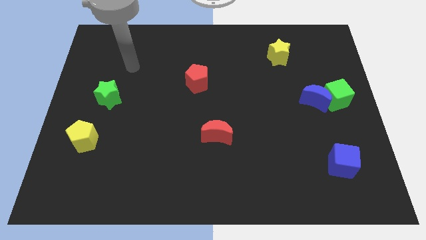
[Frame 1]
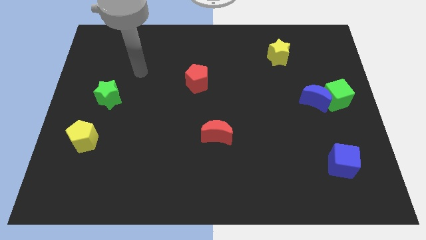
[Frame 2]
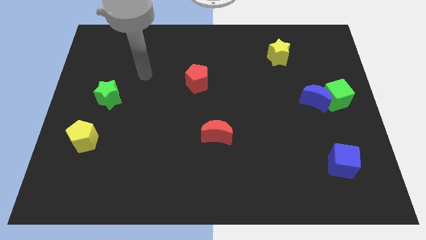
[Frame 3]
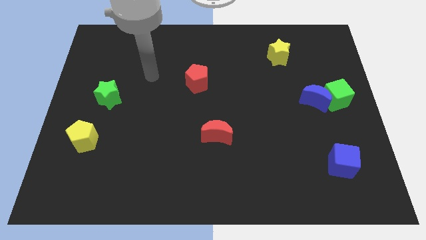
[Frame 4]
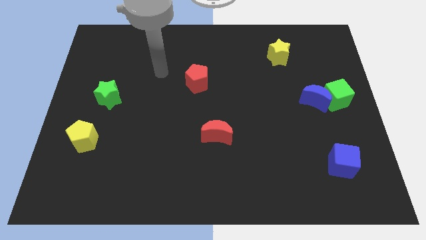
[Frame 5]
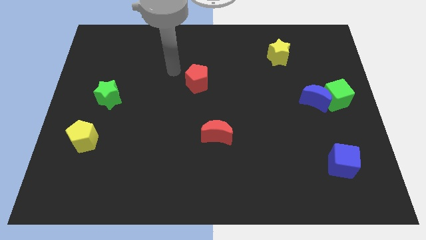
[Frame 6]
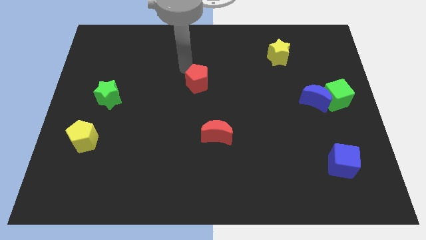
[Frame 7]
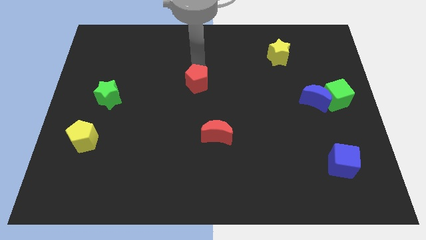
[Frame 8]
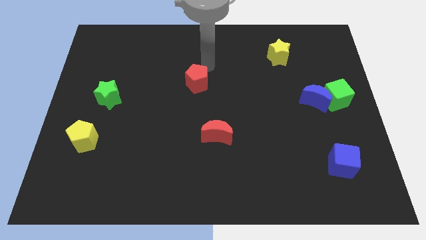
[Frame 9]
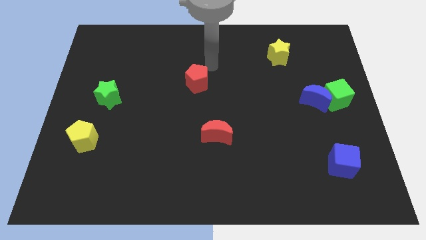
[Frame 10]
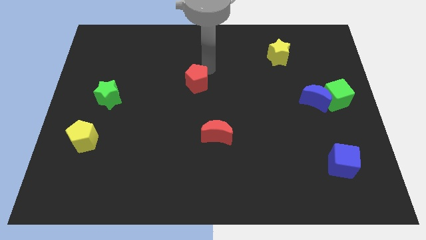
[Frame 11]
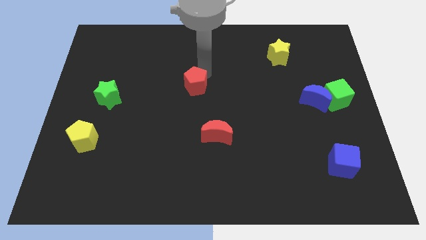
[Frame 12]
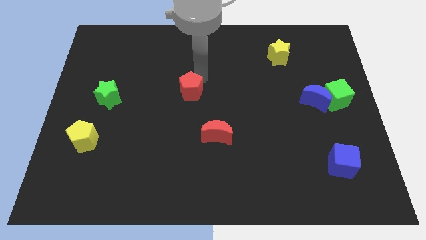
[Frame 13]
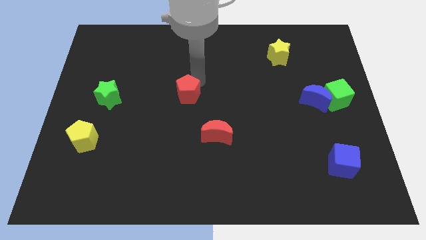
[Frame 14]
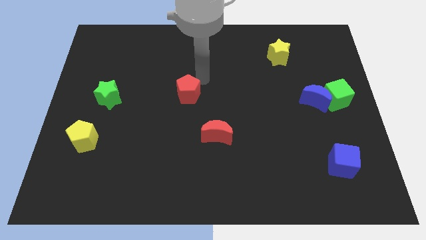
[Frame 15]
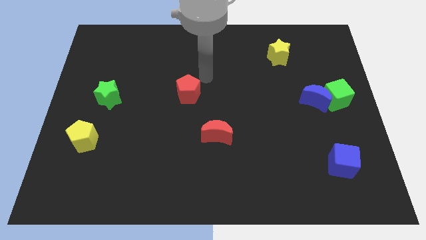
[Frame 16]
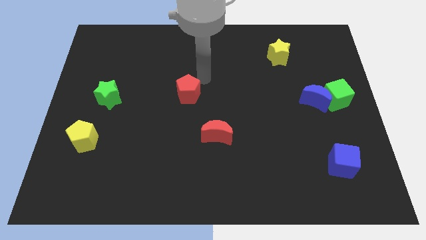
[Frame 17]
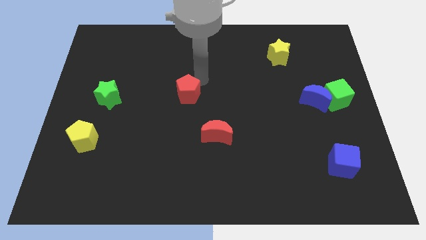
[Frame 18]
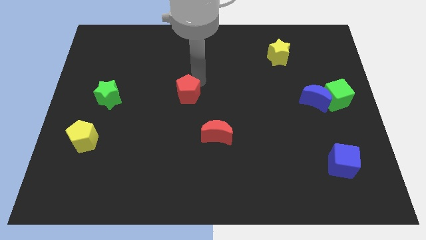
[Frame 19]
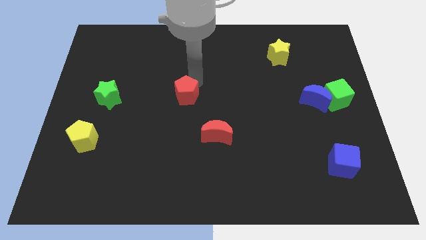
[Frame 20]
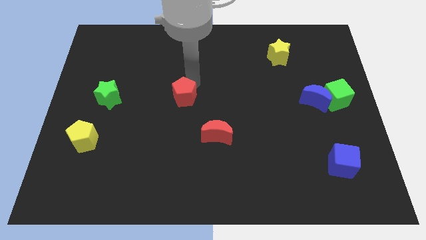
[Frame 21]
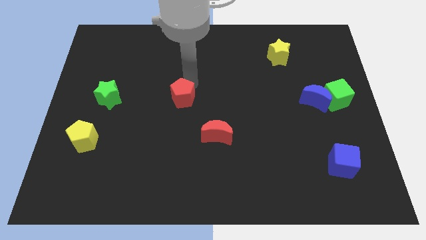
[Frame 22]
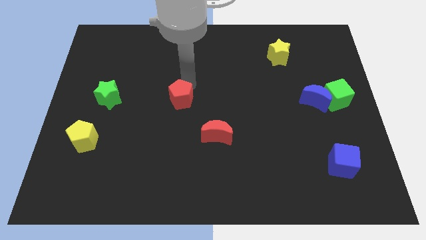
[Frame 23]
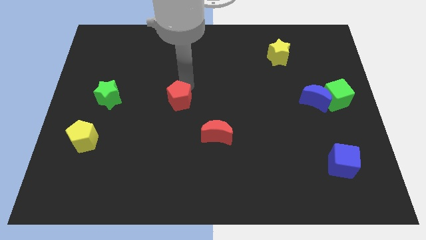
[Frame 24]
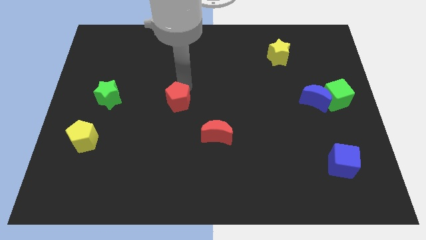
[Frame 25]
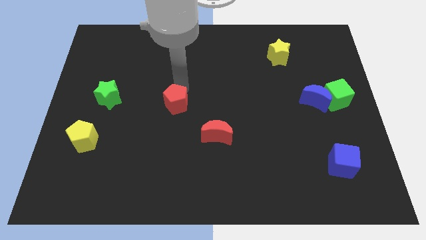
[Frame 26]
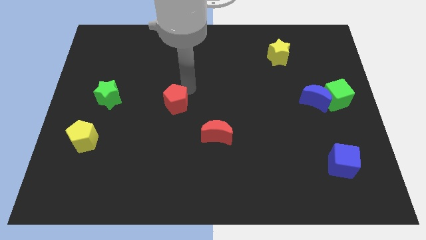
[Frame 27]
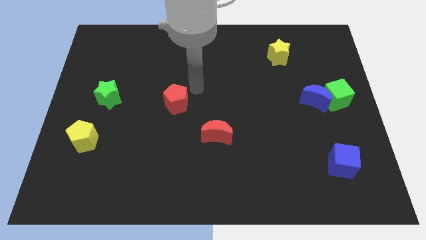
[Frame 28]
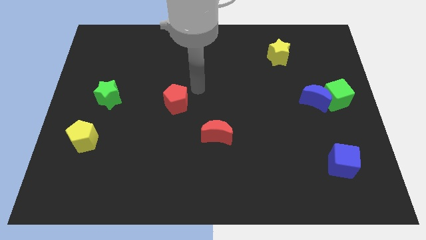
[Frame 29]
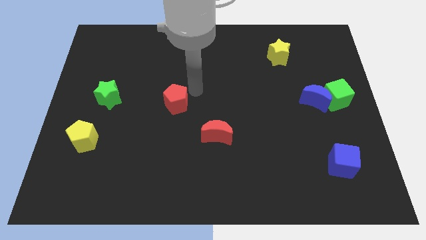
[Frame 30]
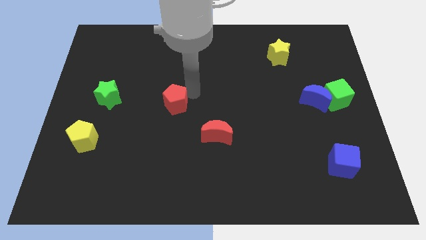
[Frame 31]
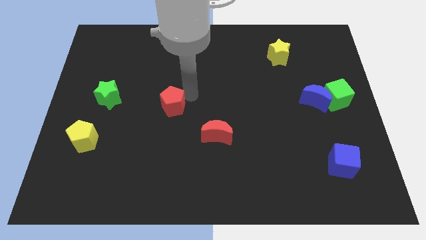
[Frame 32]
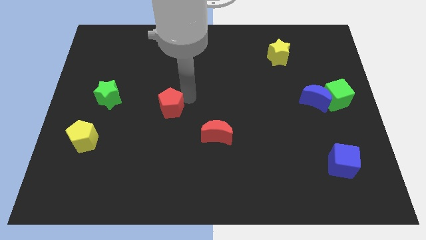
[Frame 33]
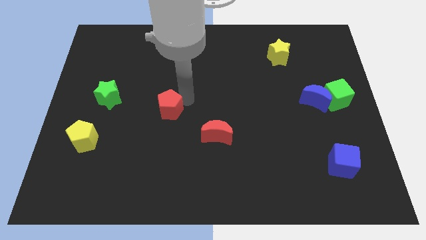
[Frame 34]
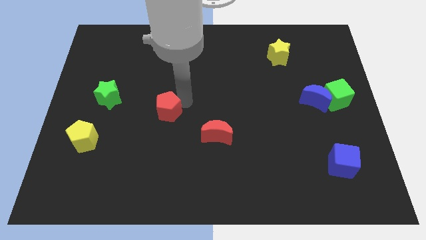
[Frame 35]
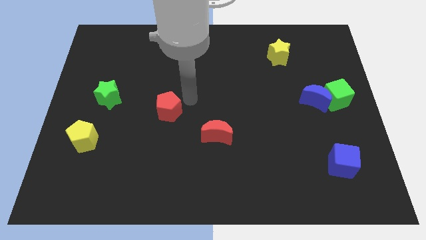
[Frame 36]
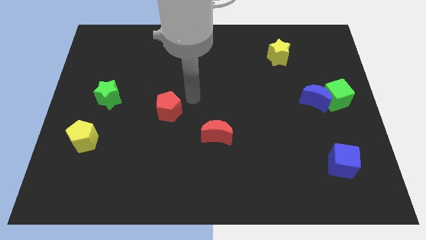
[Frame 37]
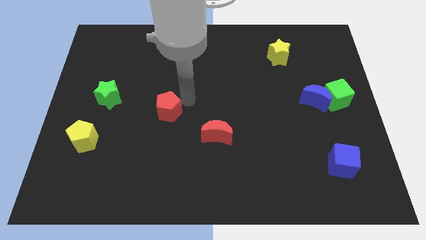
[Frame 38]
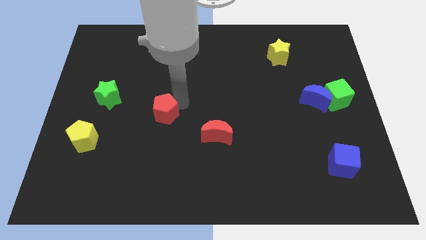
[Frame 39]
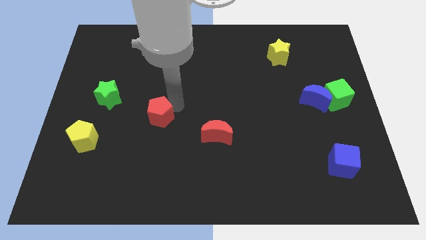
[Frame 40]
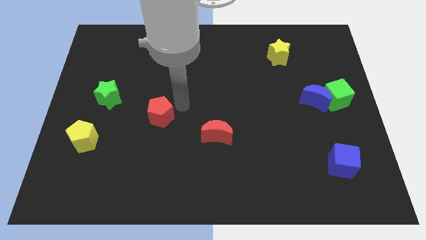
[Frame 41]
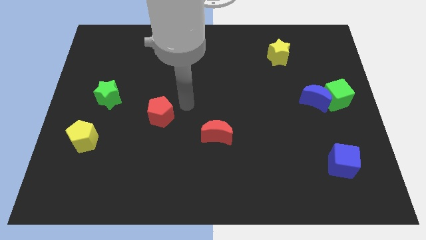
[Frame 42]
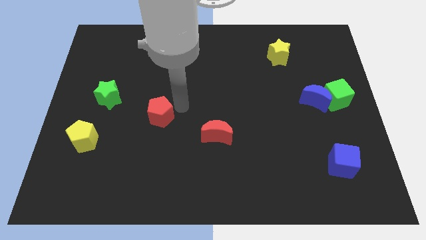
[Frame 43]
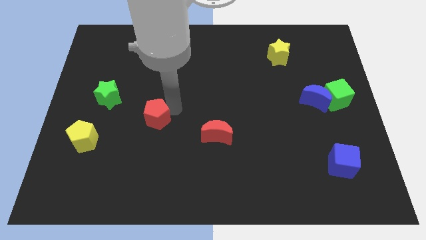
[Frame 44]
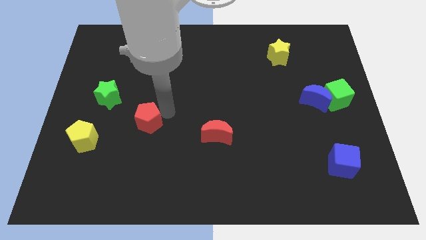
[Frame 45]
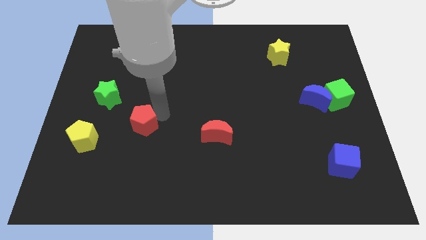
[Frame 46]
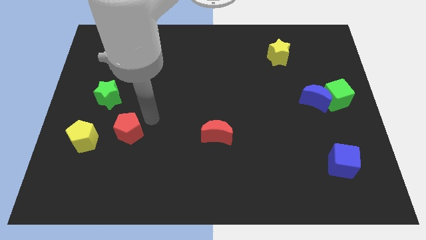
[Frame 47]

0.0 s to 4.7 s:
push the red pentagon down and to the left

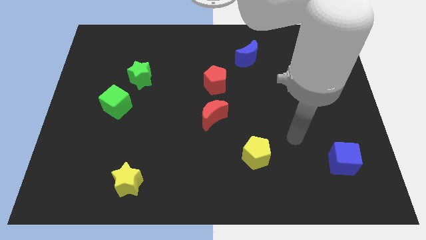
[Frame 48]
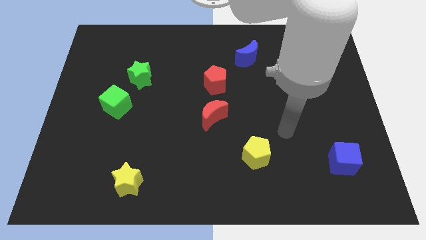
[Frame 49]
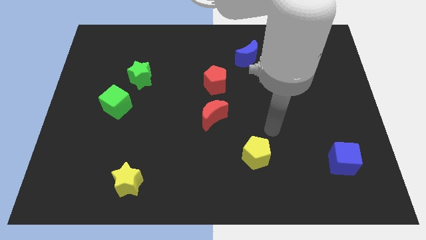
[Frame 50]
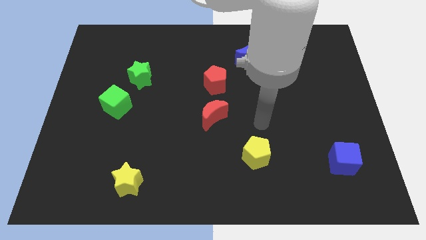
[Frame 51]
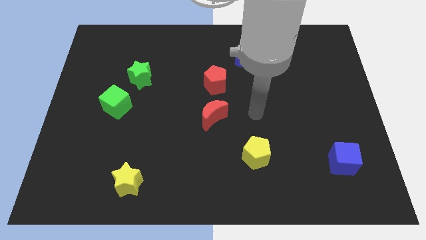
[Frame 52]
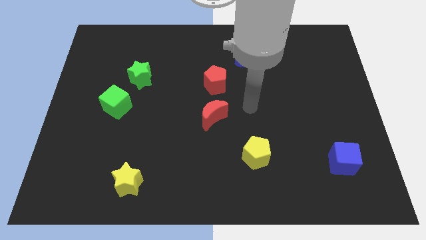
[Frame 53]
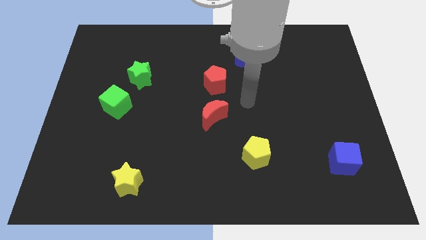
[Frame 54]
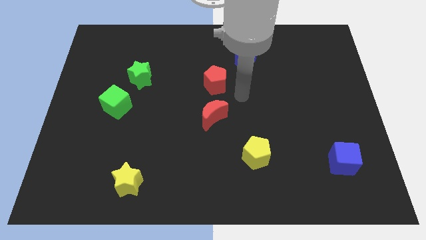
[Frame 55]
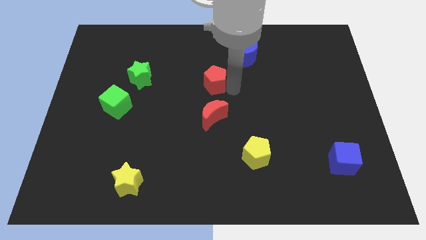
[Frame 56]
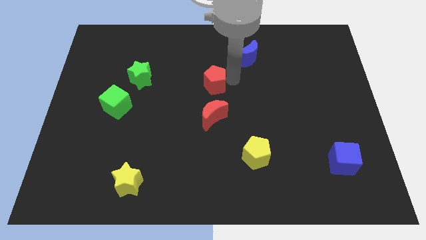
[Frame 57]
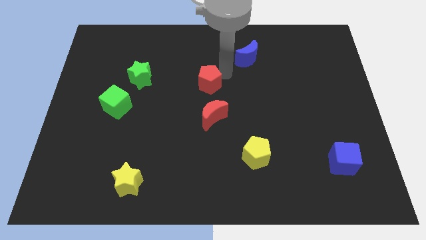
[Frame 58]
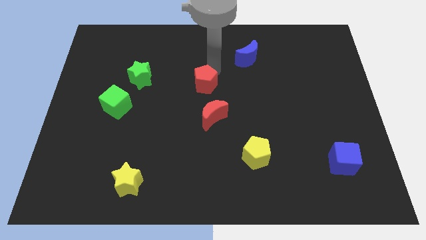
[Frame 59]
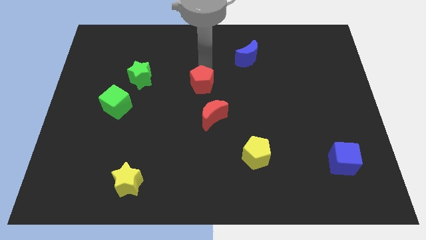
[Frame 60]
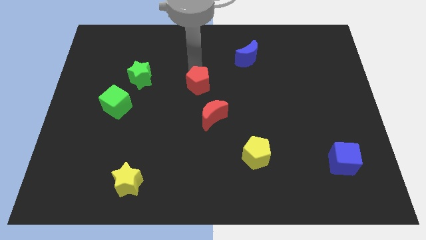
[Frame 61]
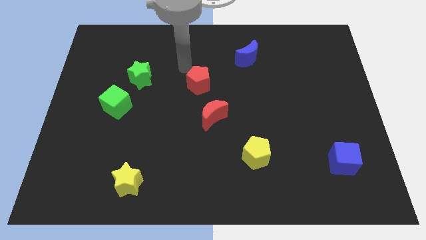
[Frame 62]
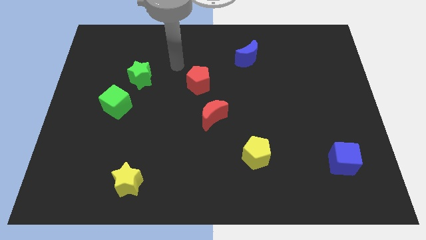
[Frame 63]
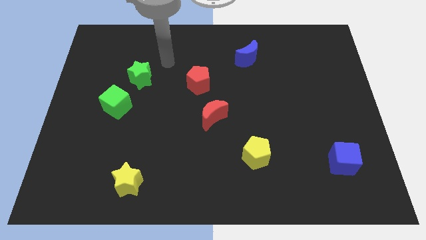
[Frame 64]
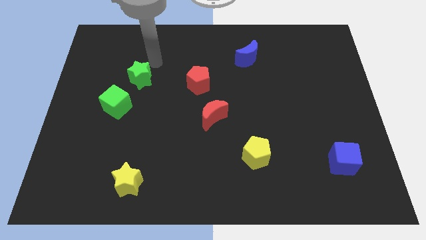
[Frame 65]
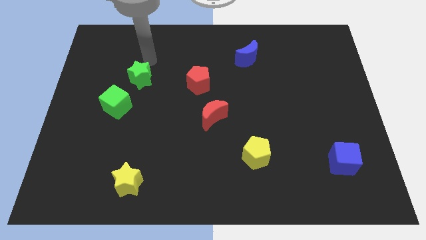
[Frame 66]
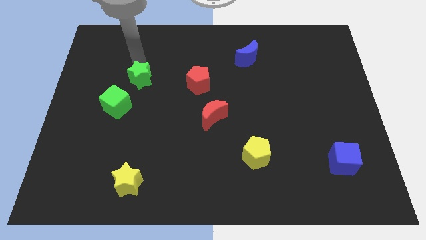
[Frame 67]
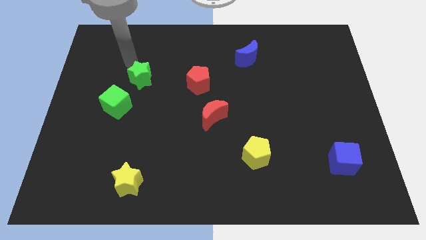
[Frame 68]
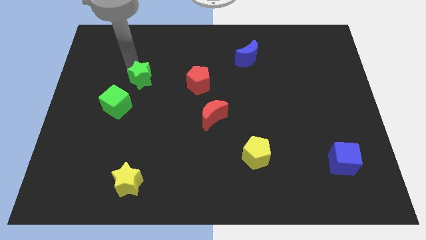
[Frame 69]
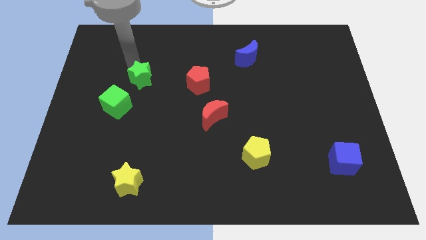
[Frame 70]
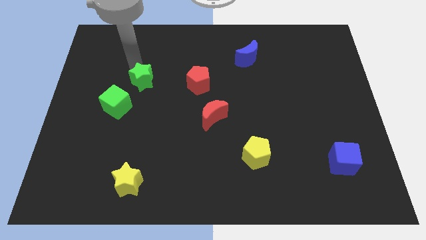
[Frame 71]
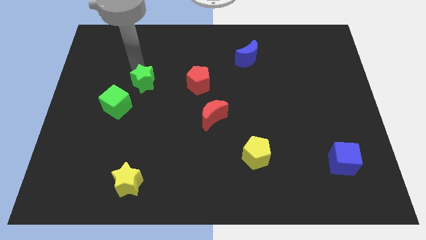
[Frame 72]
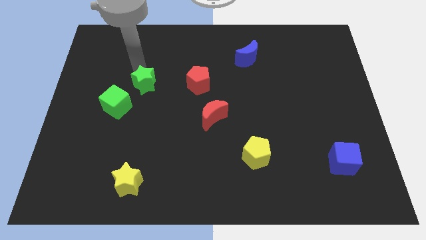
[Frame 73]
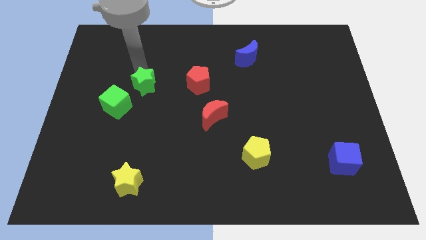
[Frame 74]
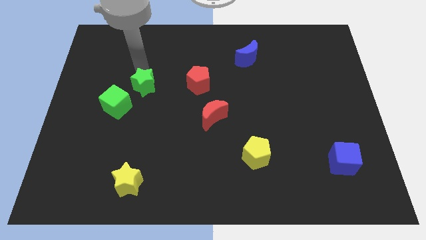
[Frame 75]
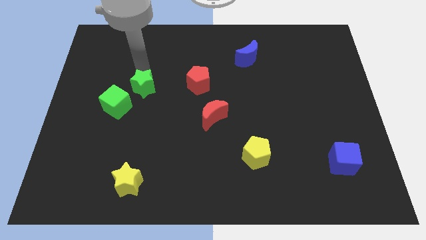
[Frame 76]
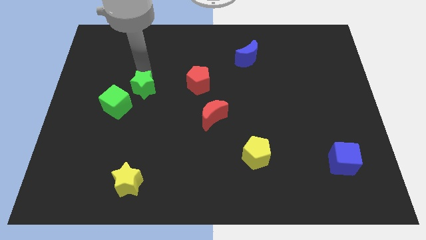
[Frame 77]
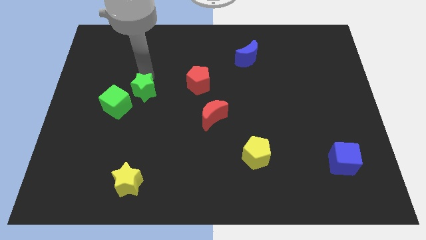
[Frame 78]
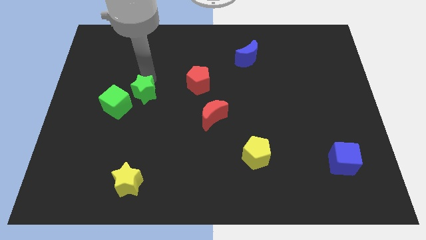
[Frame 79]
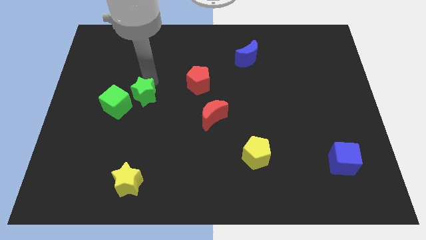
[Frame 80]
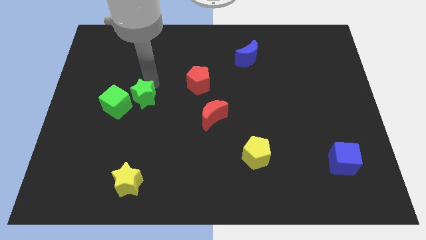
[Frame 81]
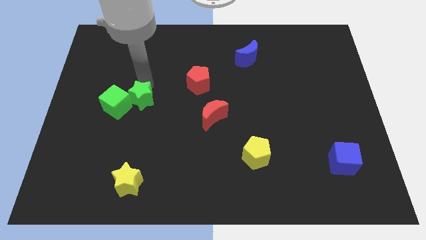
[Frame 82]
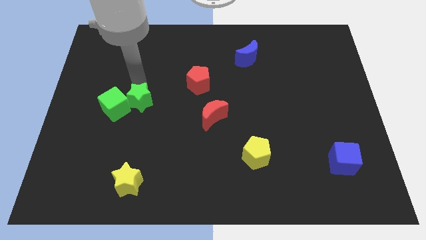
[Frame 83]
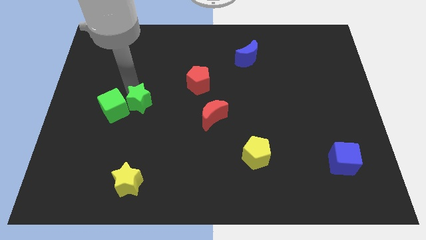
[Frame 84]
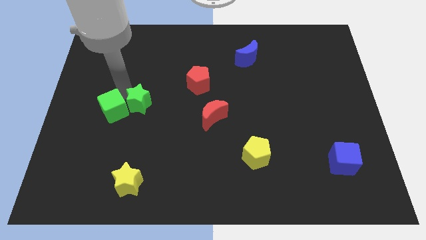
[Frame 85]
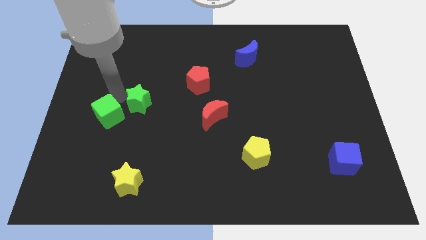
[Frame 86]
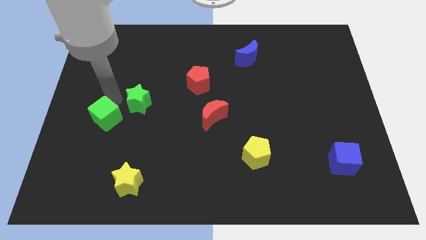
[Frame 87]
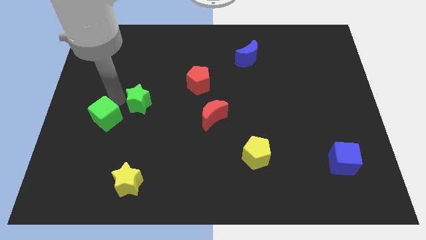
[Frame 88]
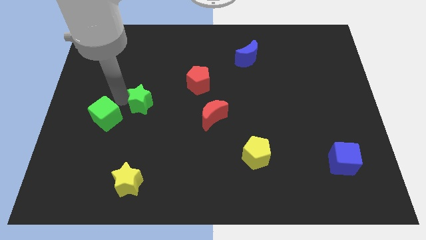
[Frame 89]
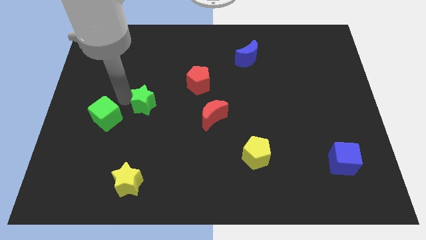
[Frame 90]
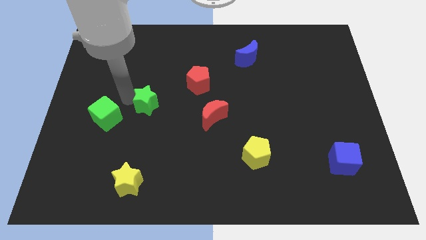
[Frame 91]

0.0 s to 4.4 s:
push the green star a little down and to the right diagonally
